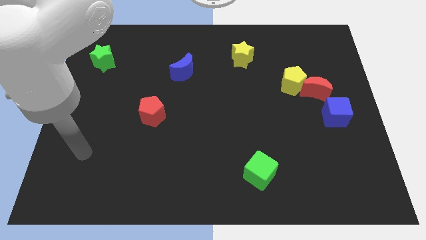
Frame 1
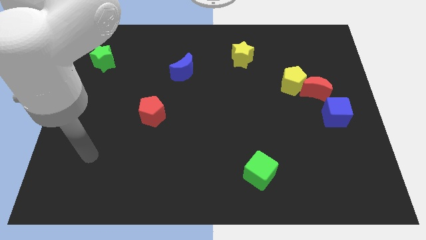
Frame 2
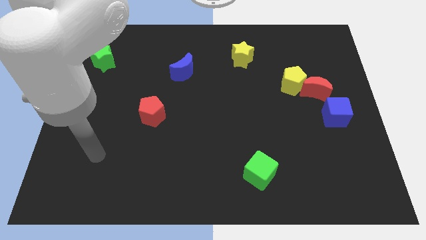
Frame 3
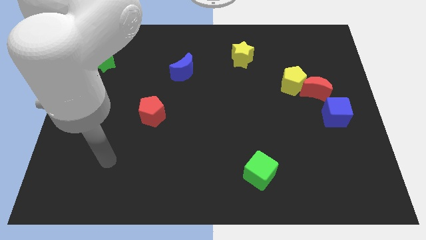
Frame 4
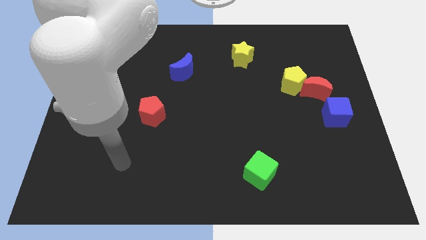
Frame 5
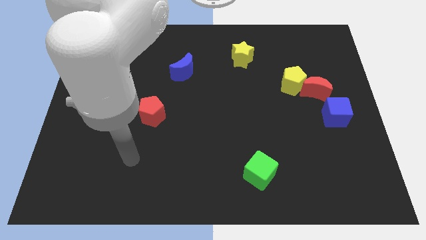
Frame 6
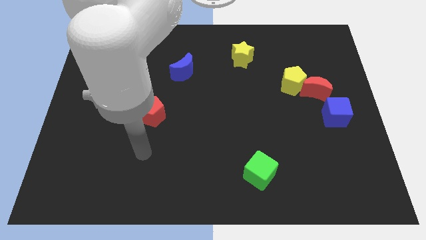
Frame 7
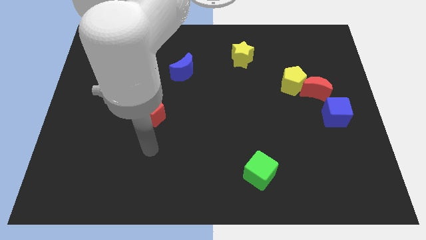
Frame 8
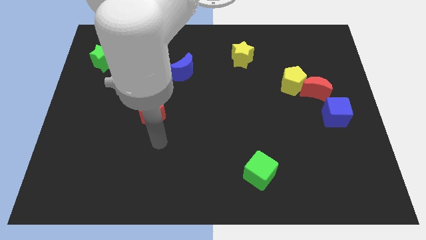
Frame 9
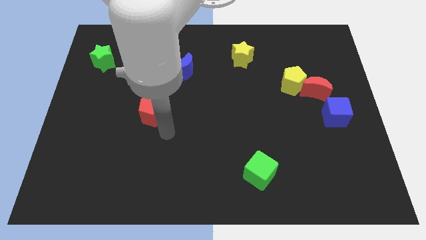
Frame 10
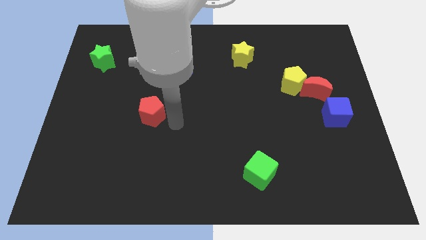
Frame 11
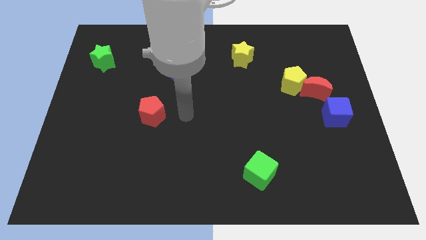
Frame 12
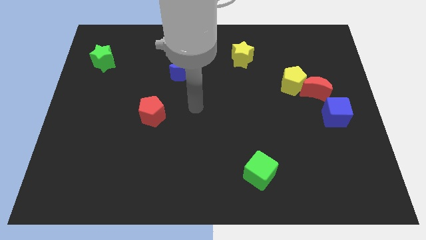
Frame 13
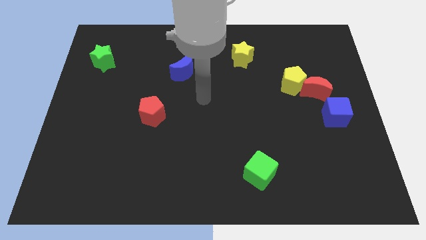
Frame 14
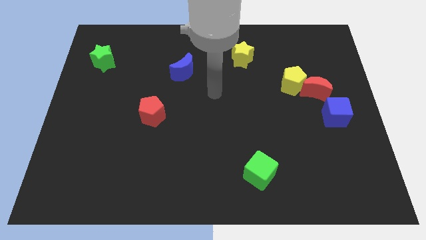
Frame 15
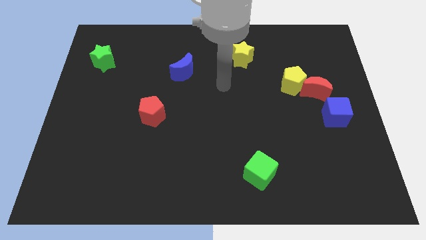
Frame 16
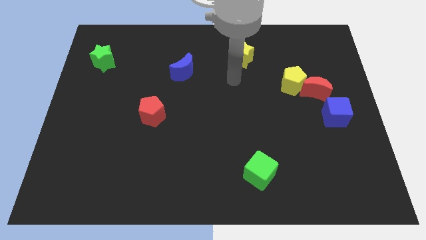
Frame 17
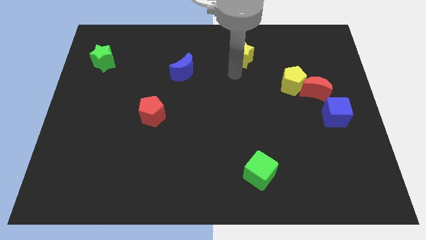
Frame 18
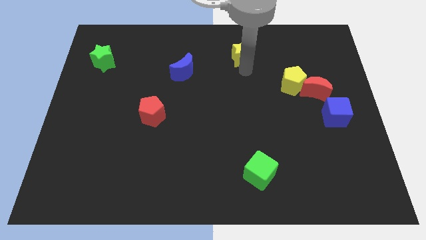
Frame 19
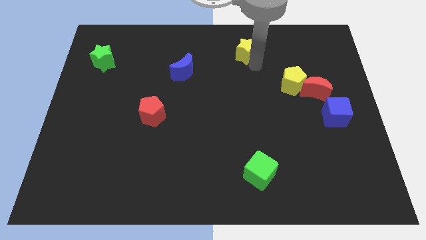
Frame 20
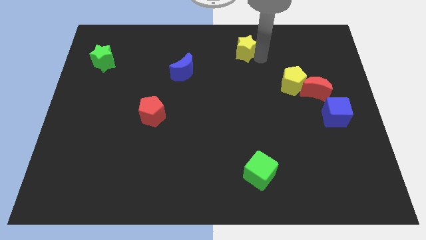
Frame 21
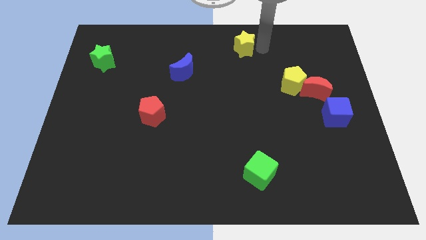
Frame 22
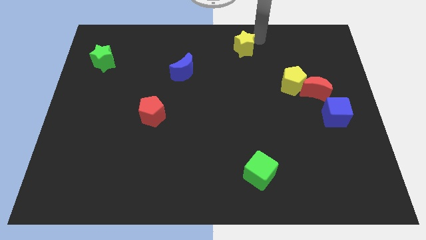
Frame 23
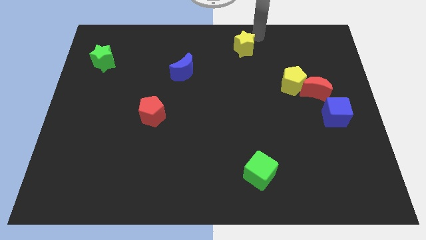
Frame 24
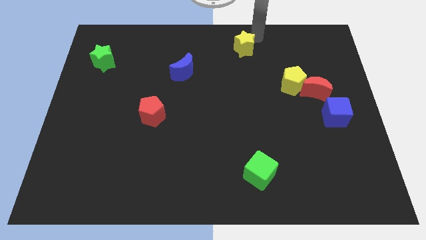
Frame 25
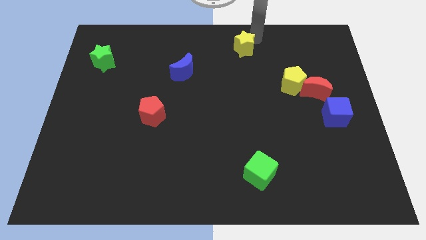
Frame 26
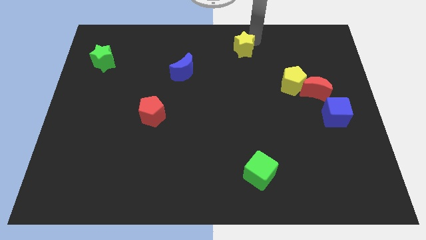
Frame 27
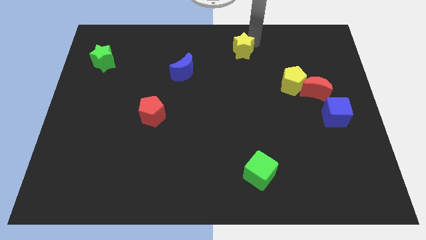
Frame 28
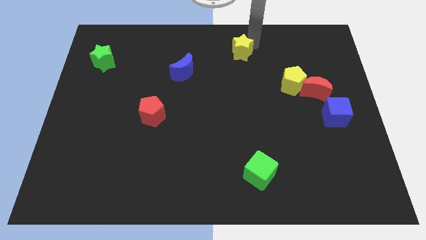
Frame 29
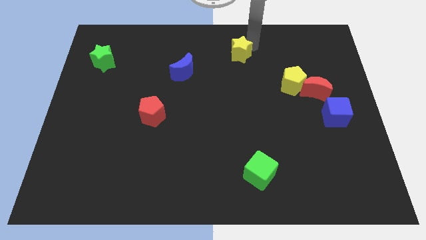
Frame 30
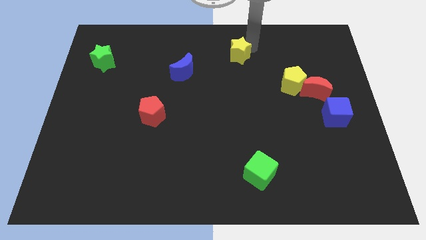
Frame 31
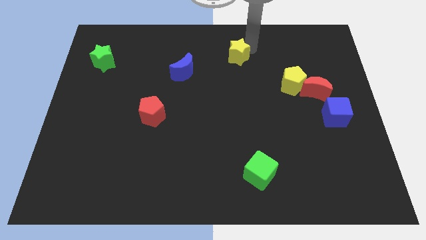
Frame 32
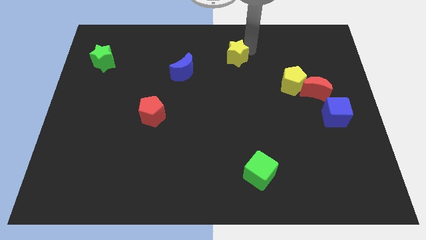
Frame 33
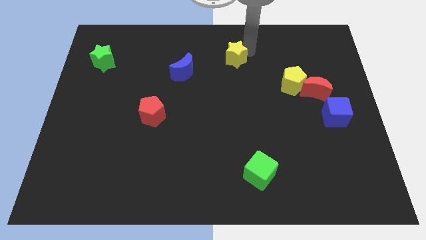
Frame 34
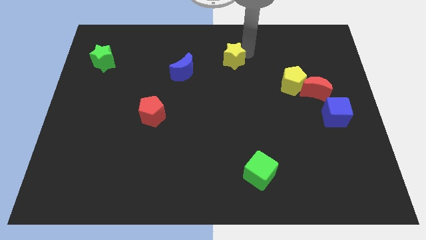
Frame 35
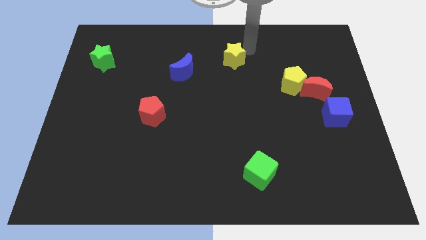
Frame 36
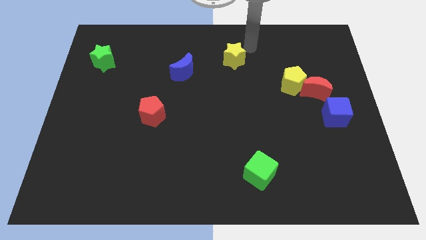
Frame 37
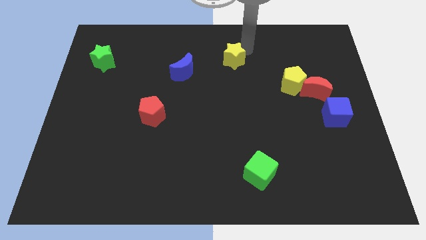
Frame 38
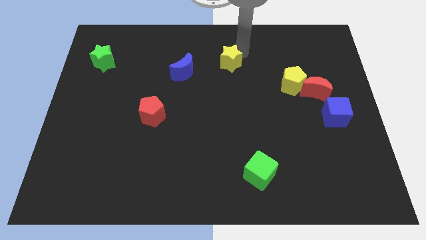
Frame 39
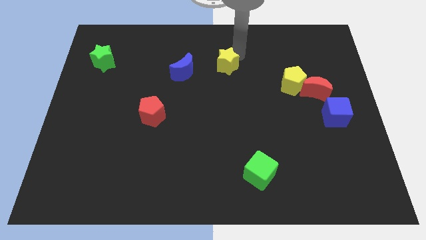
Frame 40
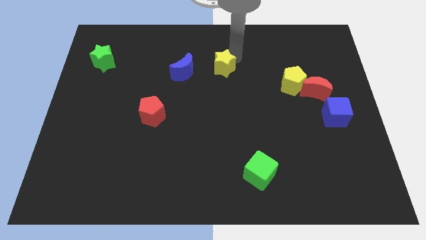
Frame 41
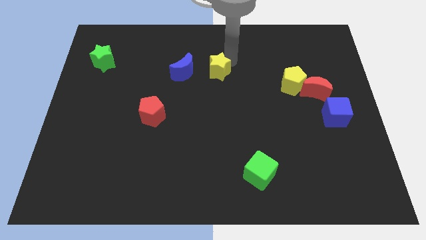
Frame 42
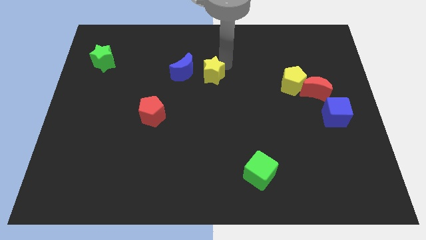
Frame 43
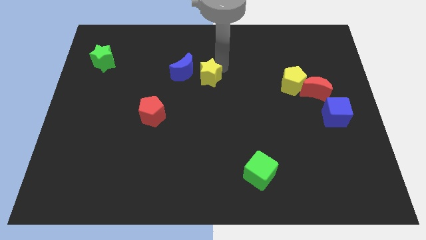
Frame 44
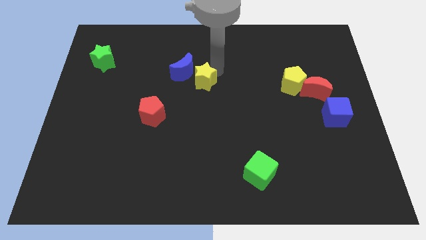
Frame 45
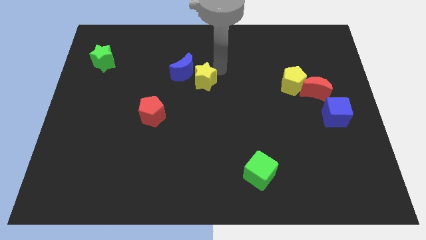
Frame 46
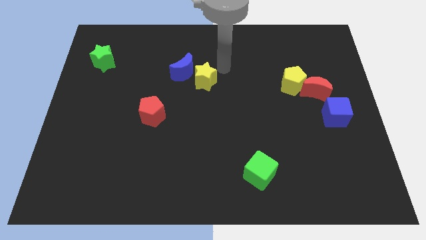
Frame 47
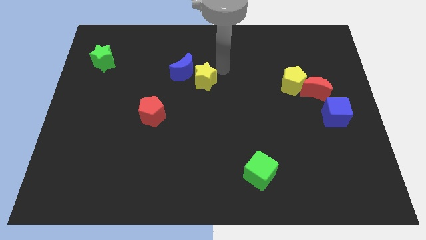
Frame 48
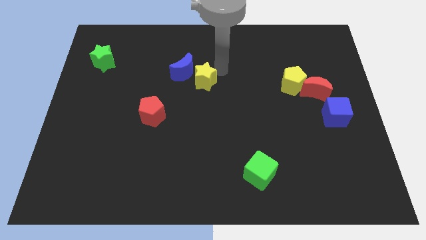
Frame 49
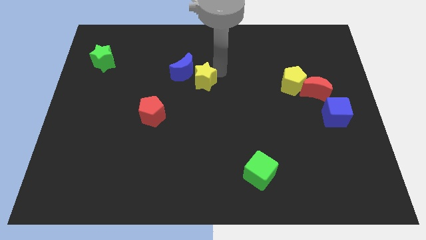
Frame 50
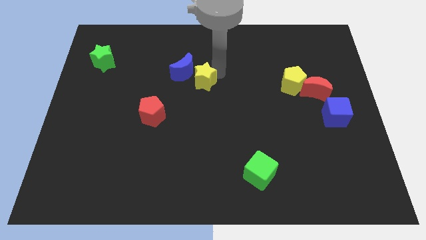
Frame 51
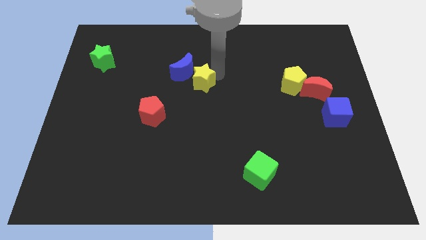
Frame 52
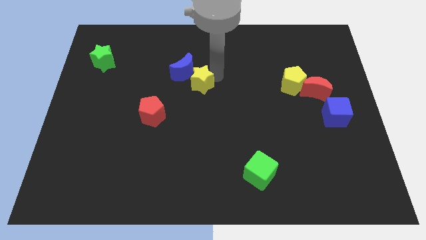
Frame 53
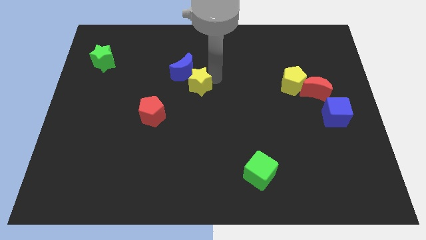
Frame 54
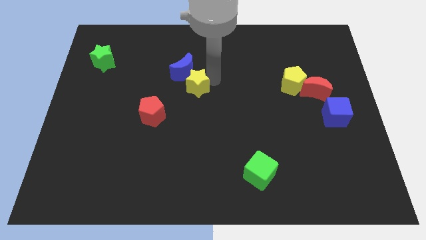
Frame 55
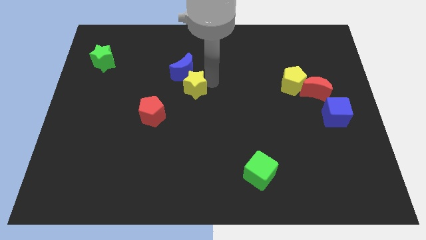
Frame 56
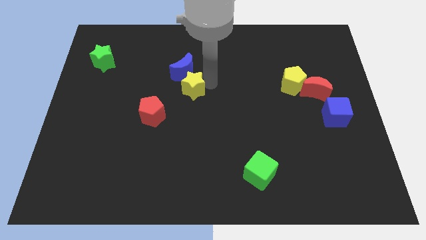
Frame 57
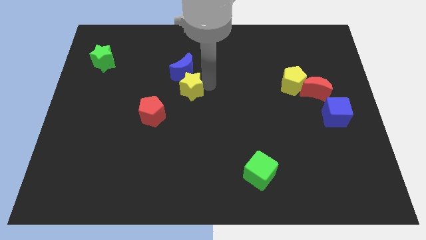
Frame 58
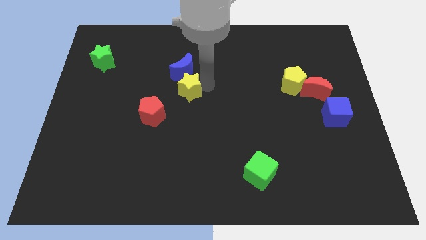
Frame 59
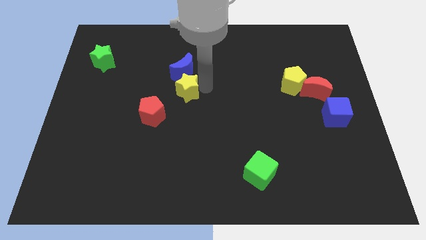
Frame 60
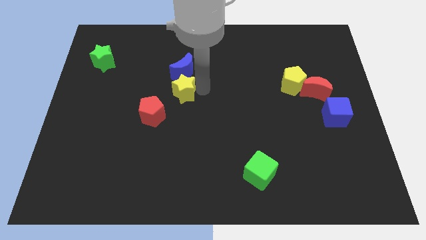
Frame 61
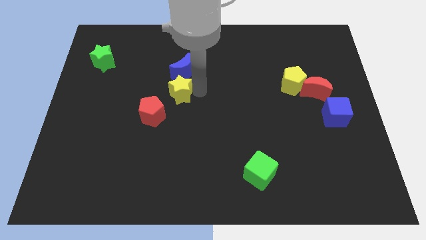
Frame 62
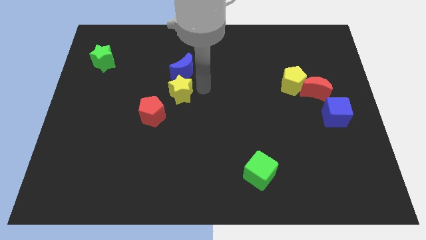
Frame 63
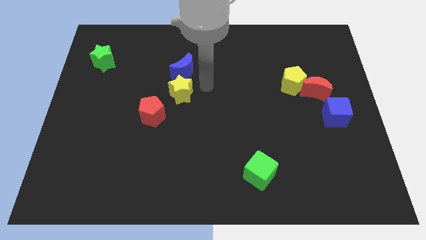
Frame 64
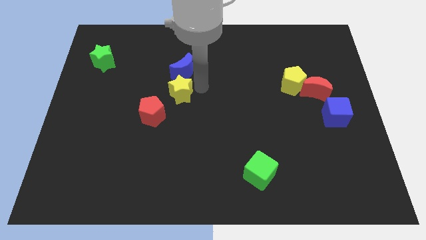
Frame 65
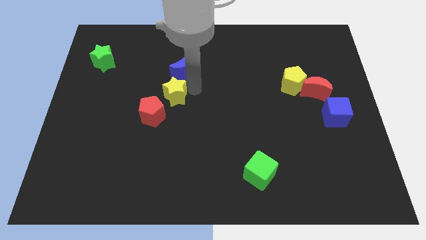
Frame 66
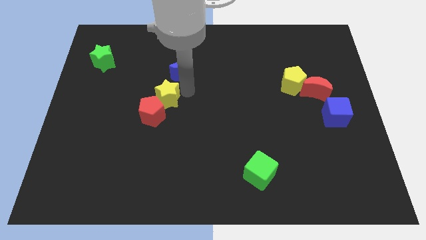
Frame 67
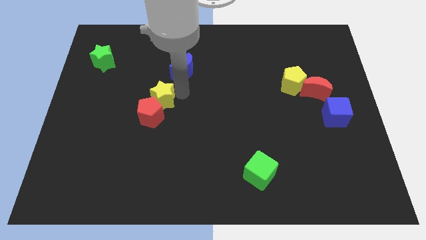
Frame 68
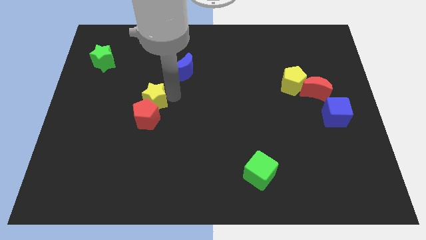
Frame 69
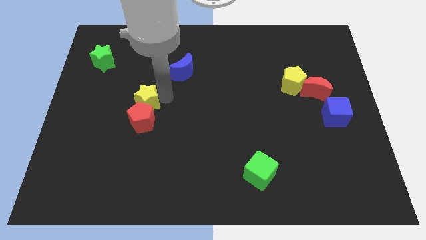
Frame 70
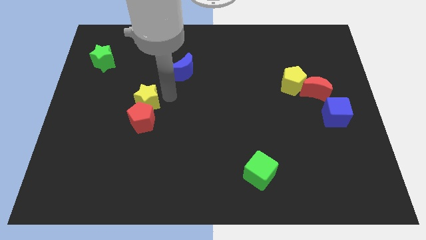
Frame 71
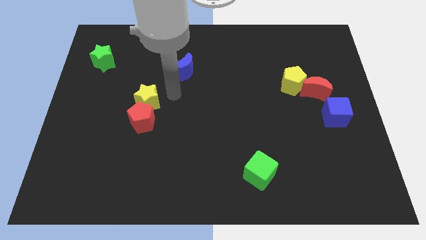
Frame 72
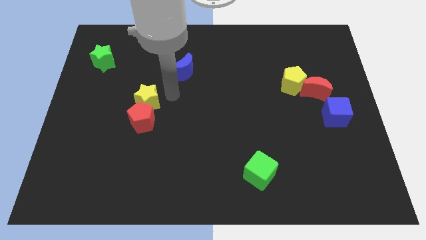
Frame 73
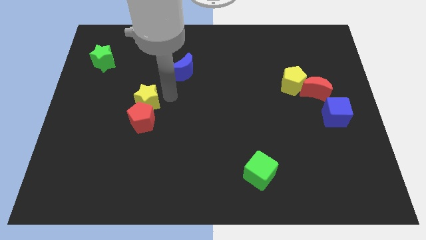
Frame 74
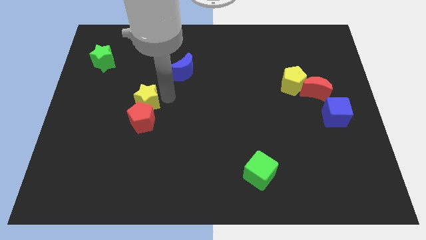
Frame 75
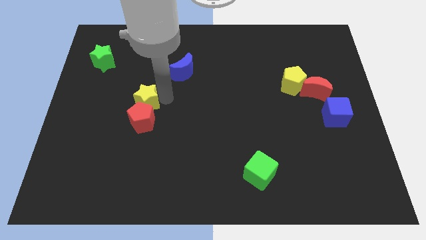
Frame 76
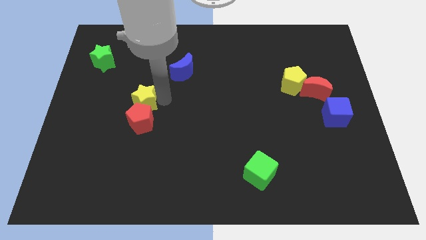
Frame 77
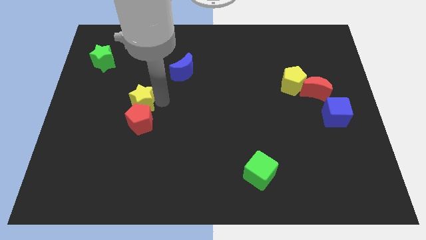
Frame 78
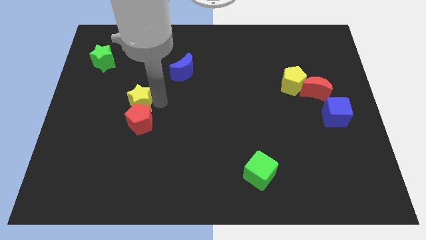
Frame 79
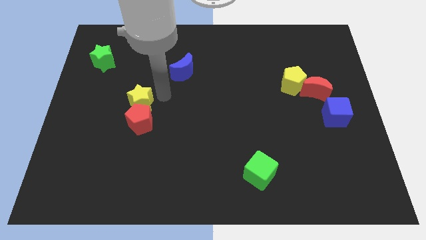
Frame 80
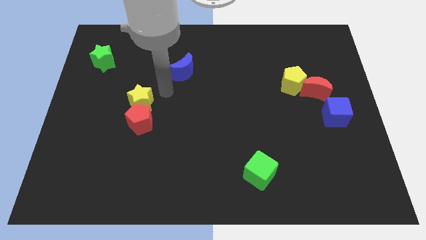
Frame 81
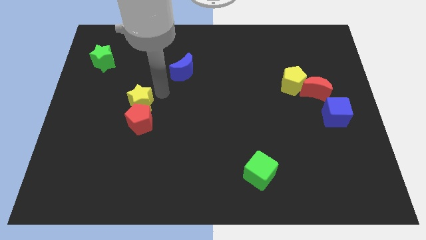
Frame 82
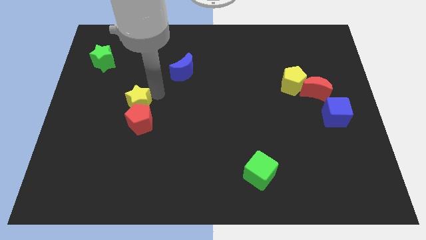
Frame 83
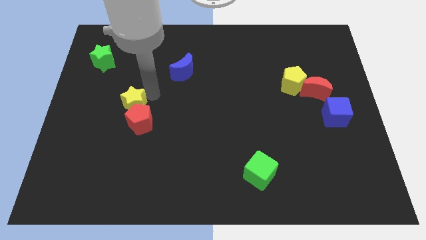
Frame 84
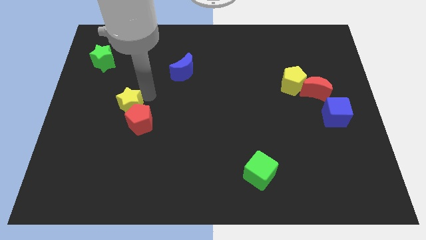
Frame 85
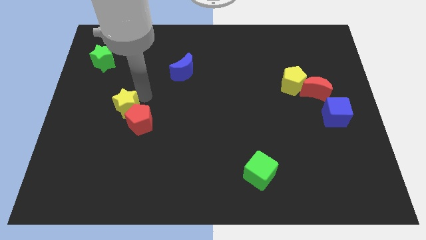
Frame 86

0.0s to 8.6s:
put the yellow star to the left side of the red pentagon
